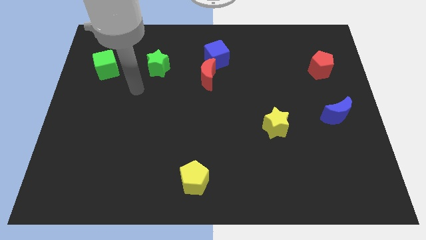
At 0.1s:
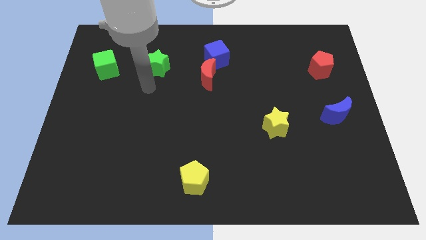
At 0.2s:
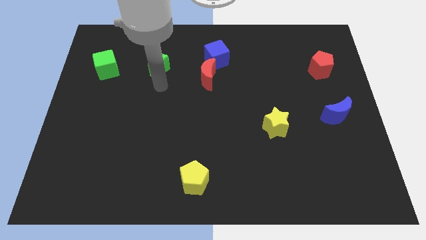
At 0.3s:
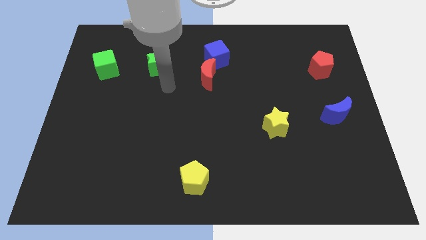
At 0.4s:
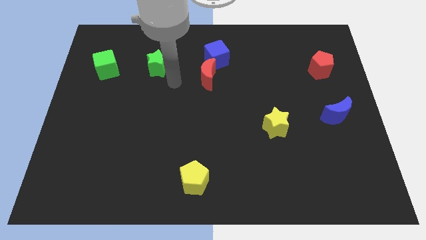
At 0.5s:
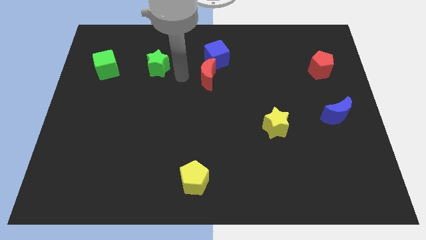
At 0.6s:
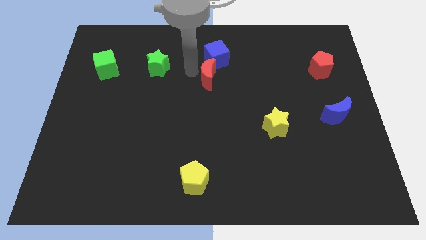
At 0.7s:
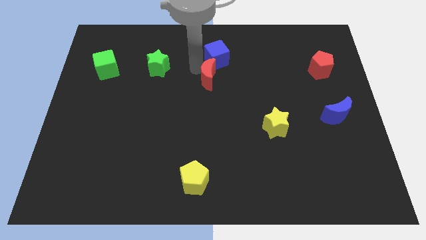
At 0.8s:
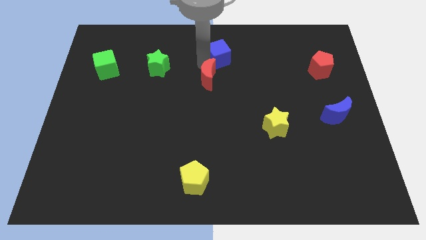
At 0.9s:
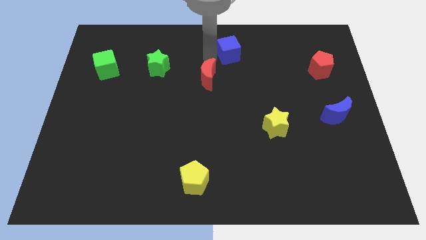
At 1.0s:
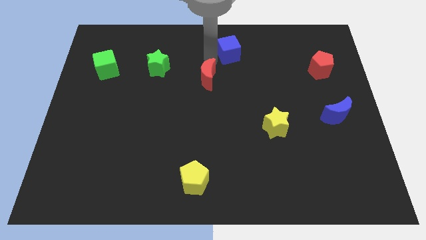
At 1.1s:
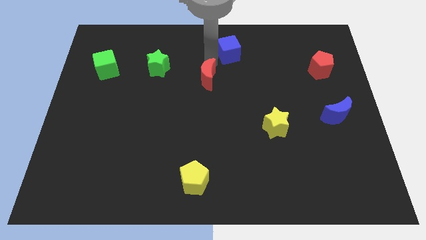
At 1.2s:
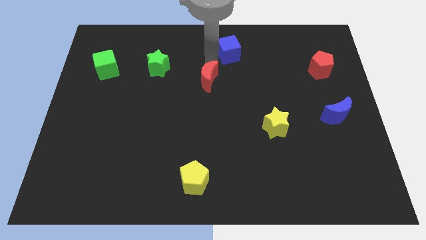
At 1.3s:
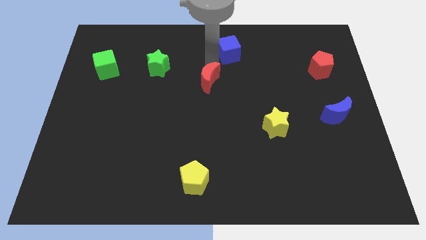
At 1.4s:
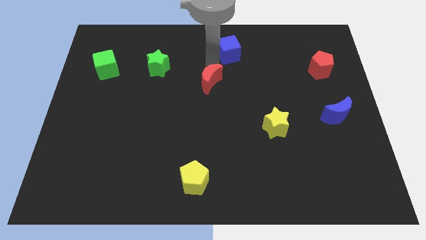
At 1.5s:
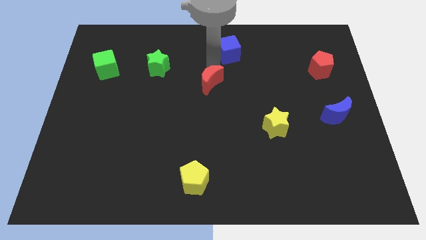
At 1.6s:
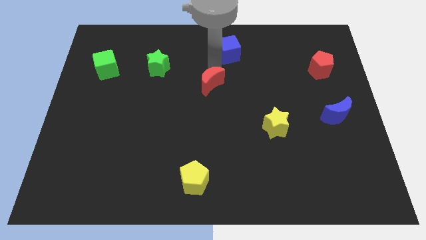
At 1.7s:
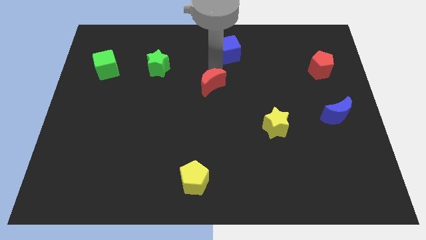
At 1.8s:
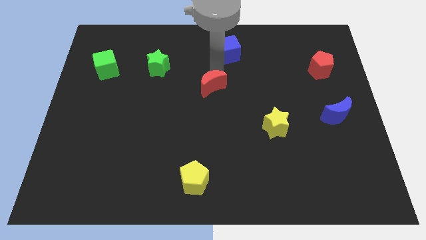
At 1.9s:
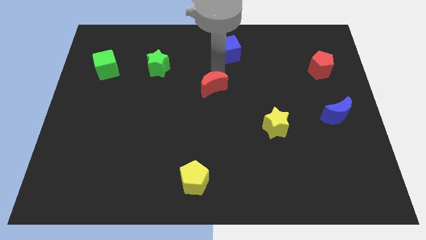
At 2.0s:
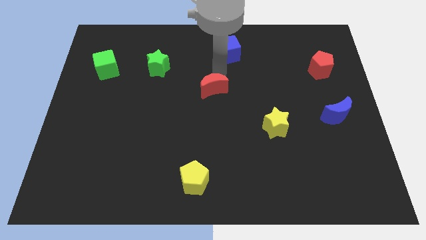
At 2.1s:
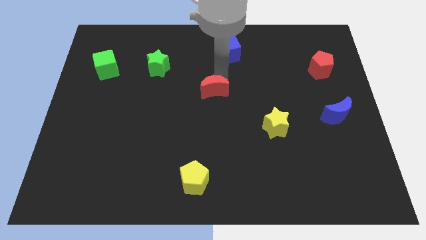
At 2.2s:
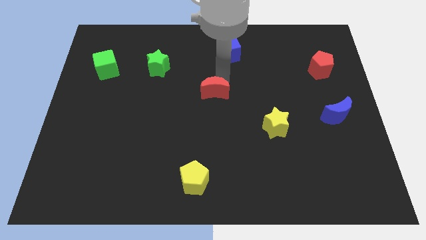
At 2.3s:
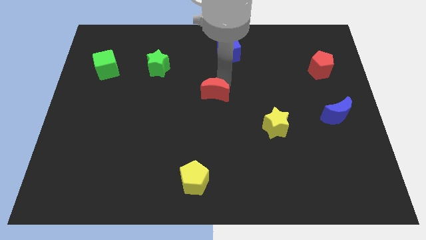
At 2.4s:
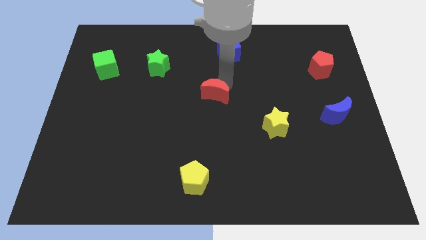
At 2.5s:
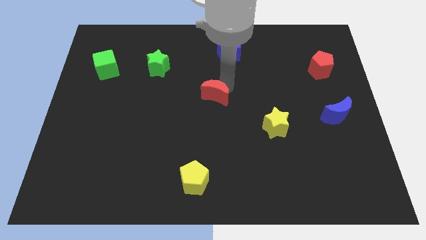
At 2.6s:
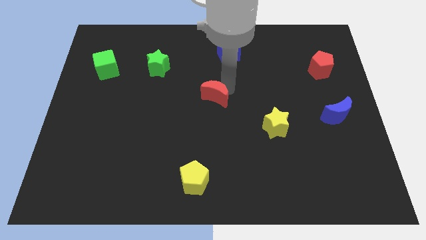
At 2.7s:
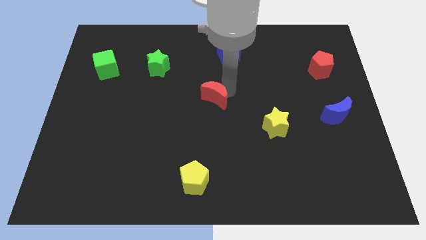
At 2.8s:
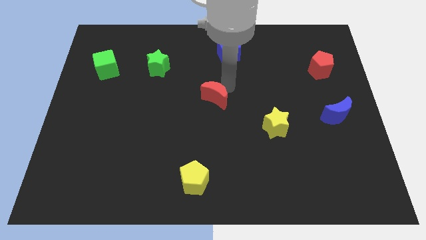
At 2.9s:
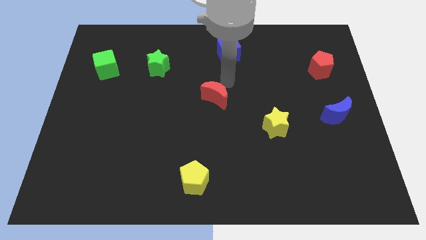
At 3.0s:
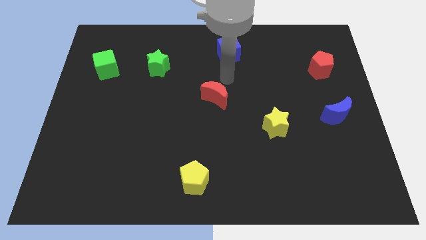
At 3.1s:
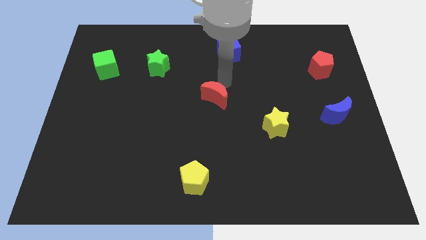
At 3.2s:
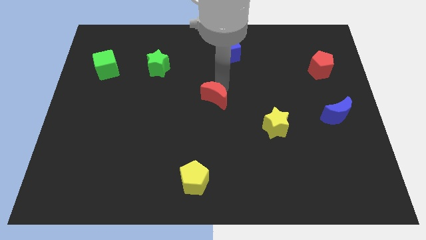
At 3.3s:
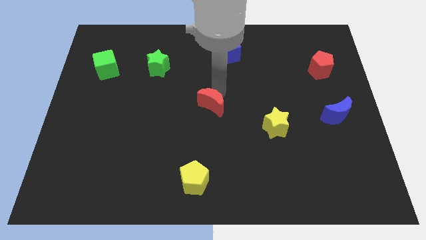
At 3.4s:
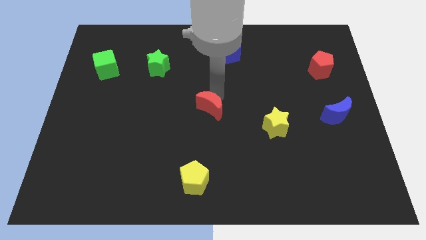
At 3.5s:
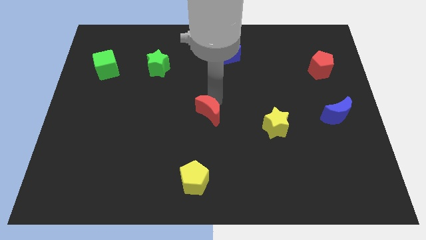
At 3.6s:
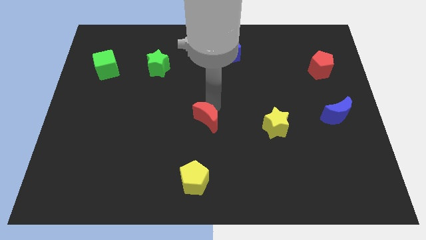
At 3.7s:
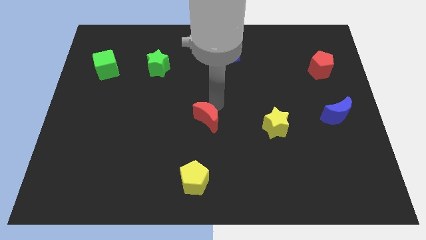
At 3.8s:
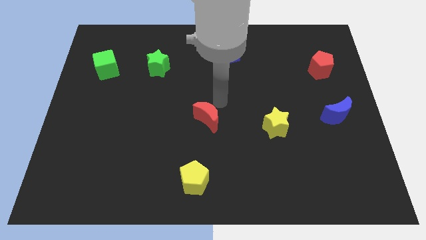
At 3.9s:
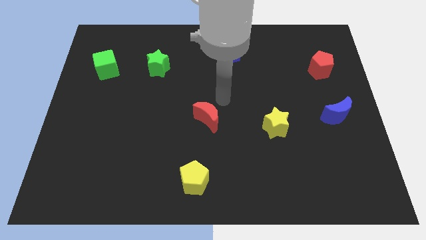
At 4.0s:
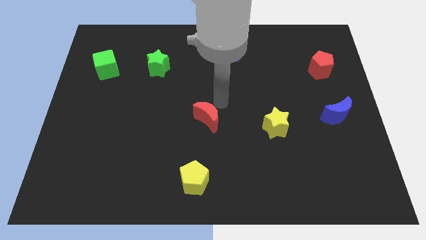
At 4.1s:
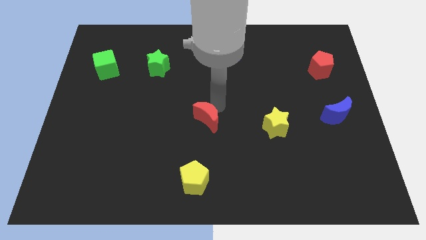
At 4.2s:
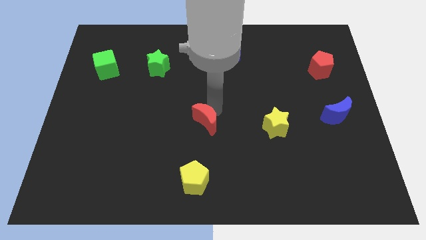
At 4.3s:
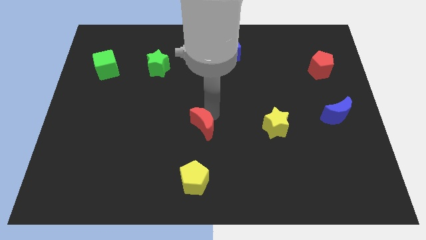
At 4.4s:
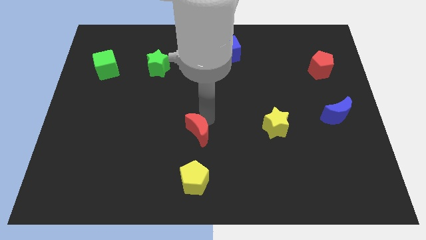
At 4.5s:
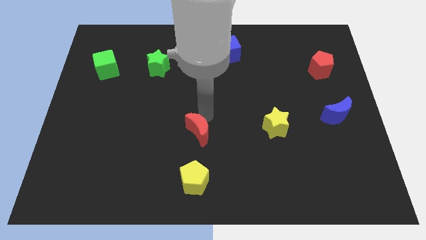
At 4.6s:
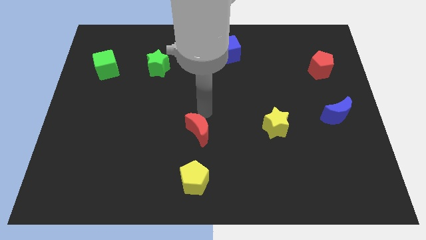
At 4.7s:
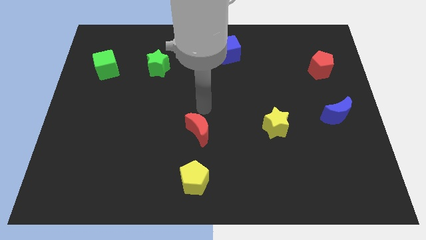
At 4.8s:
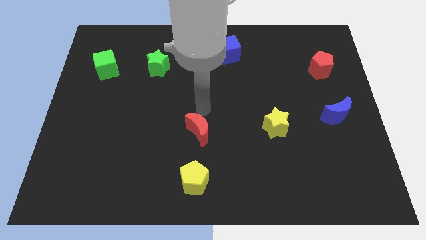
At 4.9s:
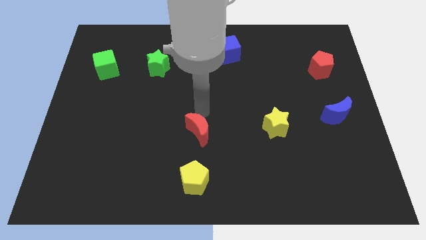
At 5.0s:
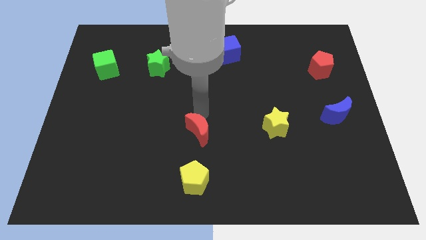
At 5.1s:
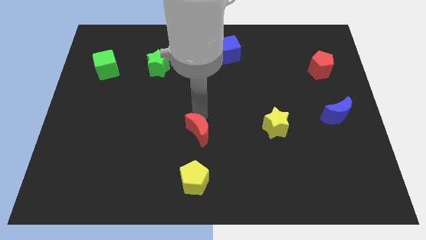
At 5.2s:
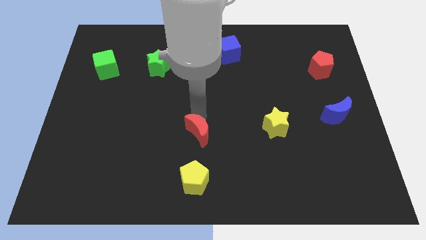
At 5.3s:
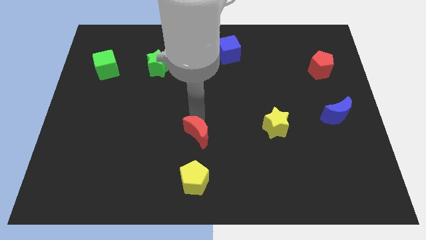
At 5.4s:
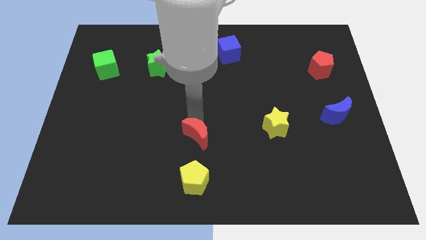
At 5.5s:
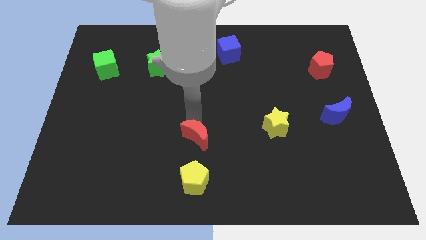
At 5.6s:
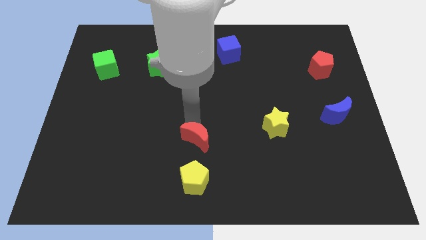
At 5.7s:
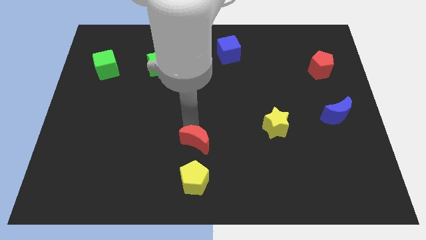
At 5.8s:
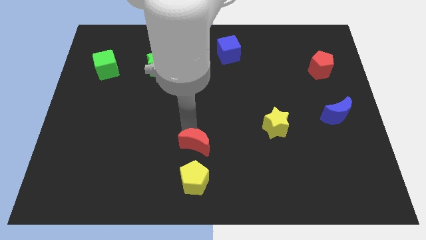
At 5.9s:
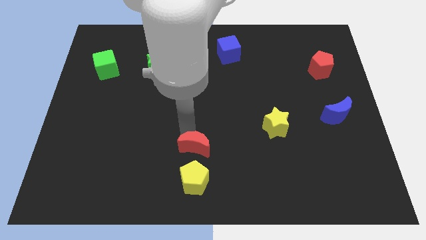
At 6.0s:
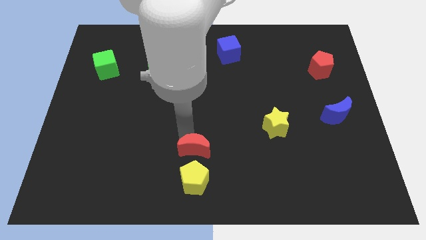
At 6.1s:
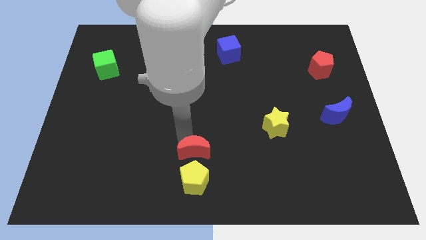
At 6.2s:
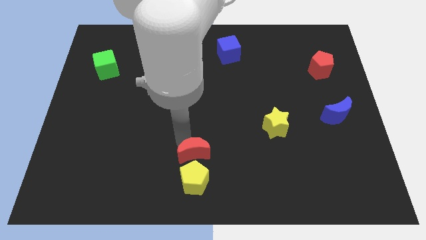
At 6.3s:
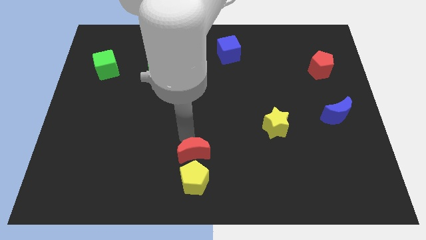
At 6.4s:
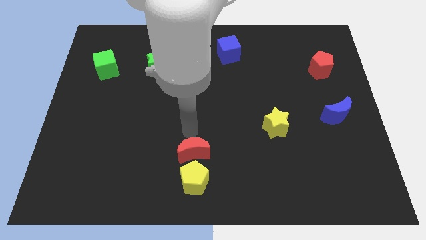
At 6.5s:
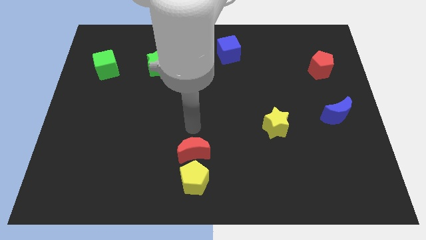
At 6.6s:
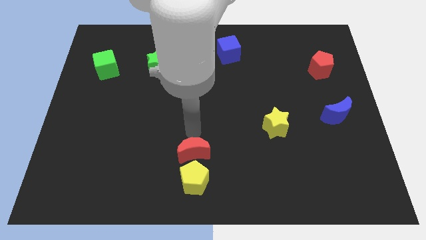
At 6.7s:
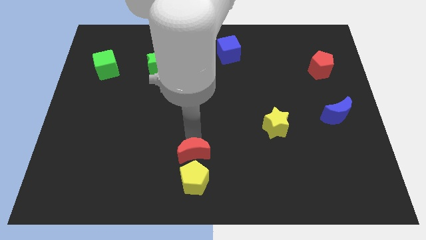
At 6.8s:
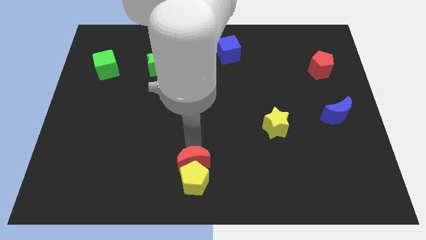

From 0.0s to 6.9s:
put the red moon next to the yellow pentagon

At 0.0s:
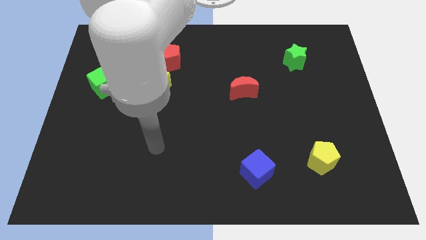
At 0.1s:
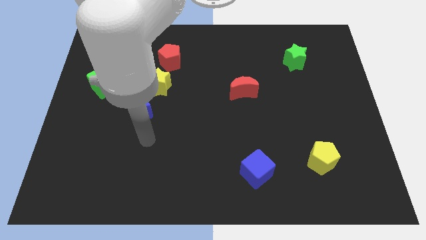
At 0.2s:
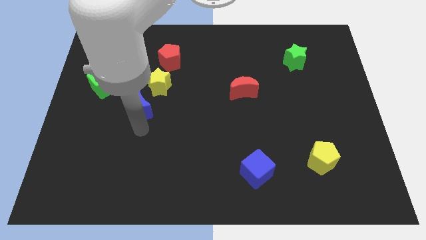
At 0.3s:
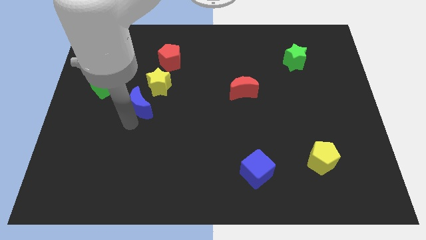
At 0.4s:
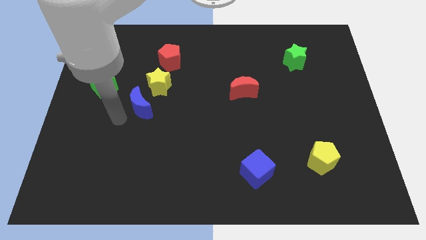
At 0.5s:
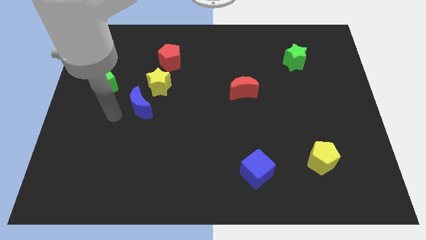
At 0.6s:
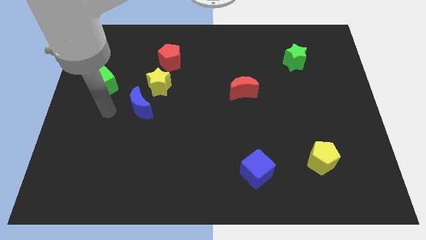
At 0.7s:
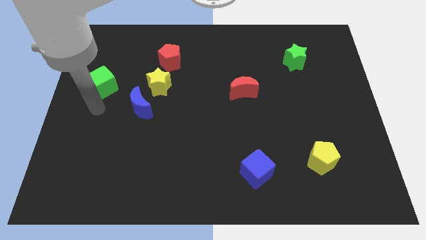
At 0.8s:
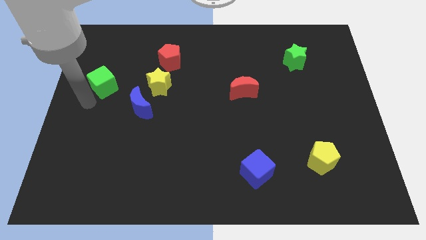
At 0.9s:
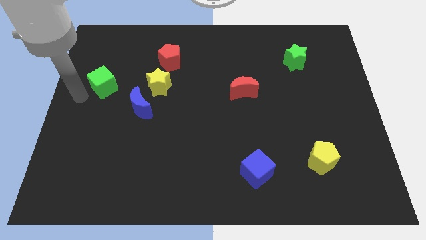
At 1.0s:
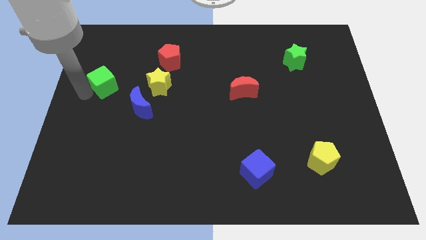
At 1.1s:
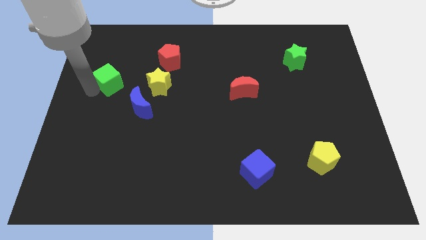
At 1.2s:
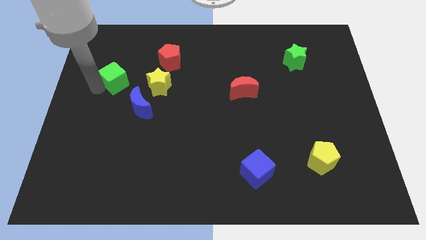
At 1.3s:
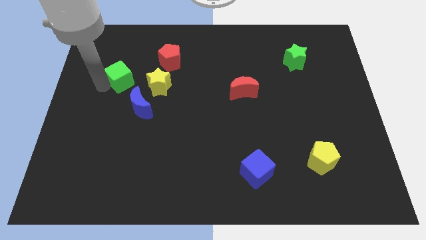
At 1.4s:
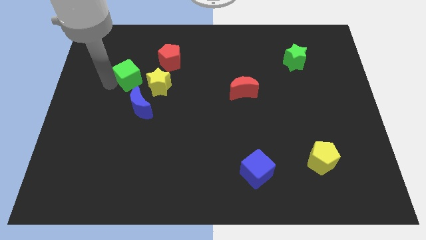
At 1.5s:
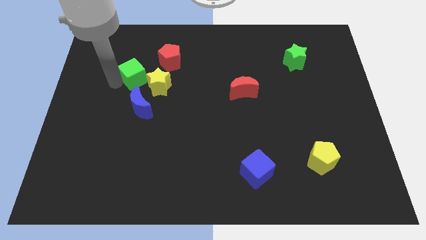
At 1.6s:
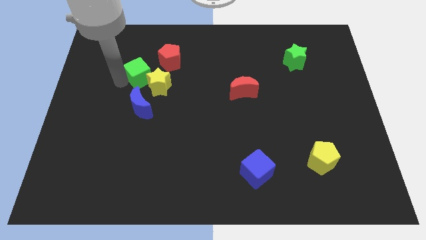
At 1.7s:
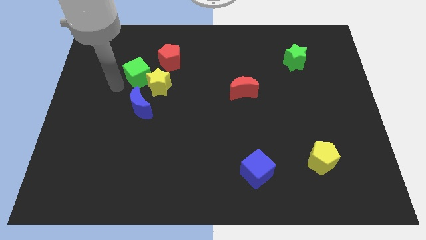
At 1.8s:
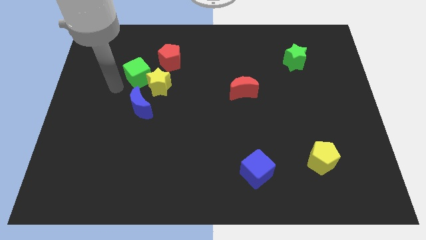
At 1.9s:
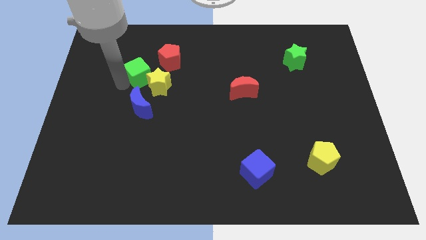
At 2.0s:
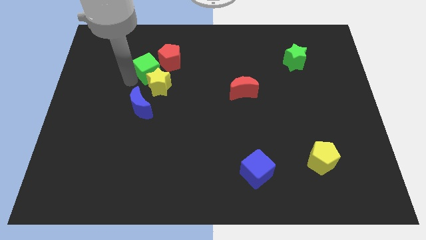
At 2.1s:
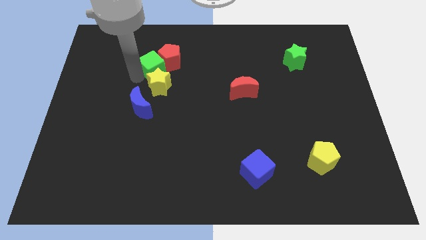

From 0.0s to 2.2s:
push the green cube to the red pentagon
